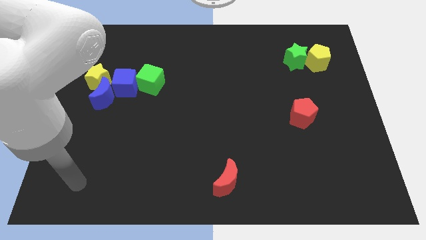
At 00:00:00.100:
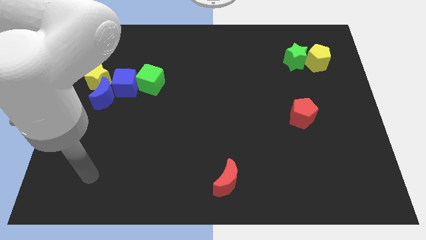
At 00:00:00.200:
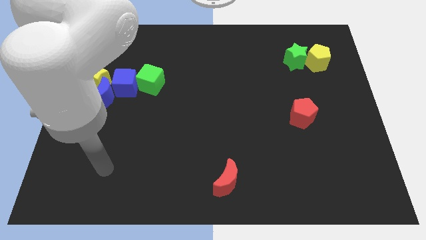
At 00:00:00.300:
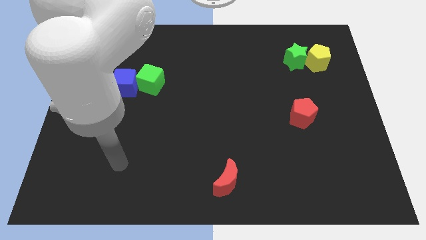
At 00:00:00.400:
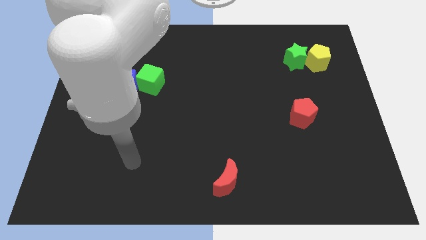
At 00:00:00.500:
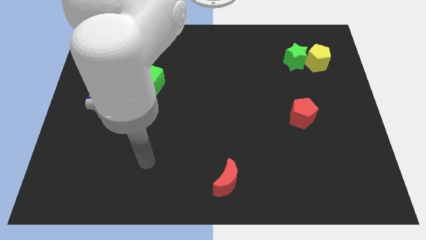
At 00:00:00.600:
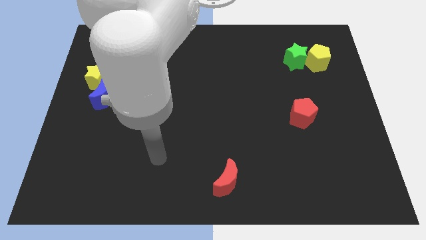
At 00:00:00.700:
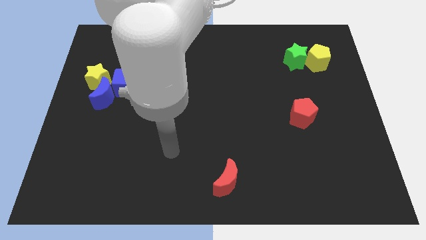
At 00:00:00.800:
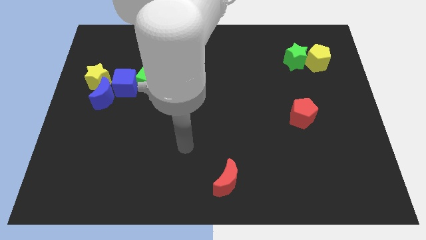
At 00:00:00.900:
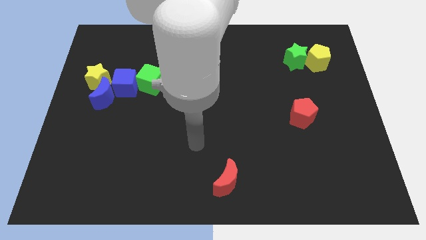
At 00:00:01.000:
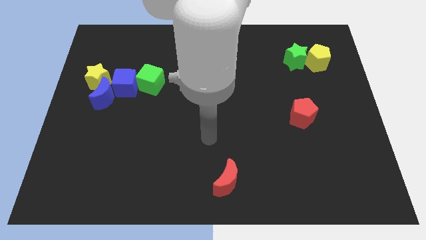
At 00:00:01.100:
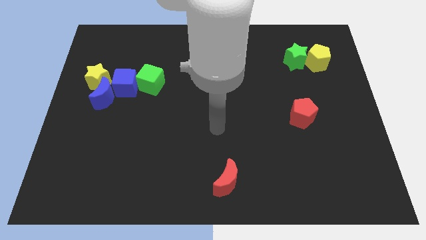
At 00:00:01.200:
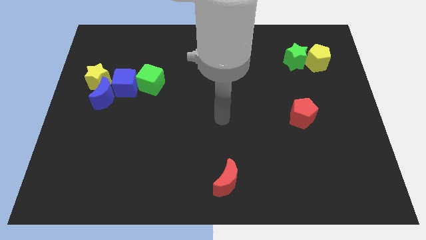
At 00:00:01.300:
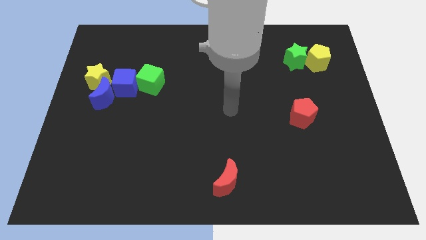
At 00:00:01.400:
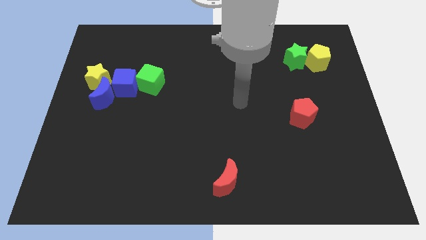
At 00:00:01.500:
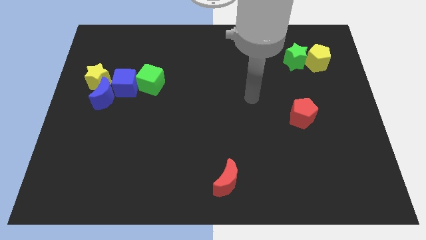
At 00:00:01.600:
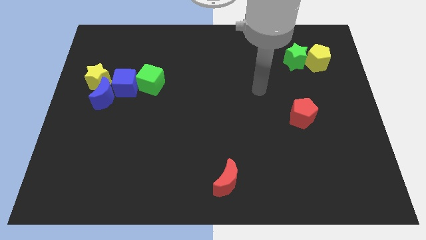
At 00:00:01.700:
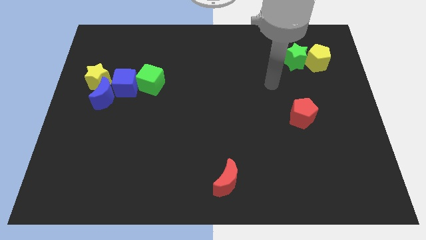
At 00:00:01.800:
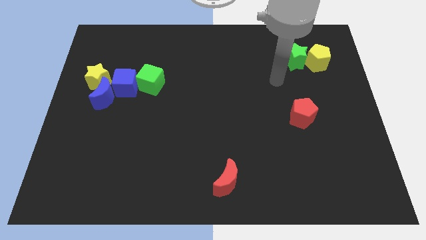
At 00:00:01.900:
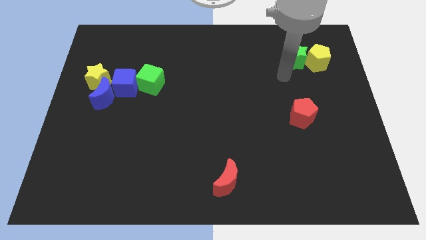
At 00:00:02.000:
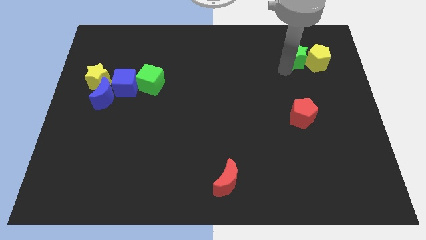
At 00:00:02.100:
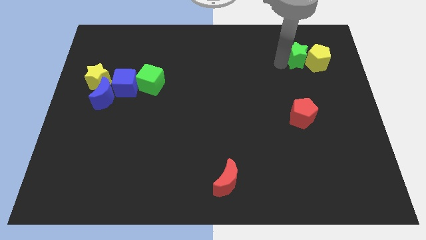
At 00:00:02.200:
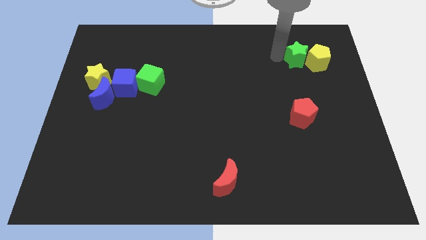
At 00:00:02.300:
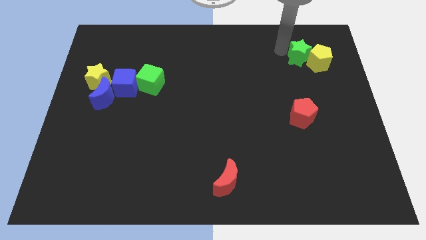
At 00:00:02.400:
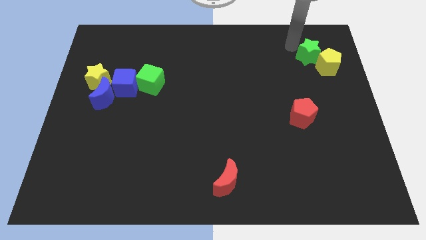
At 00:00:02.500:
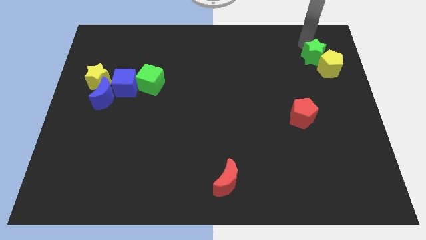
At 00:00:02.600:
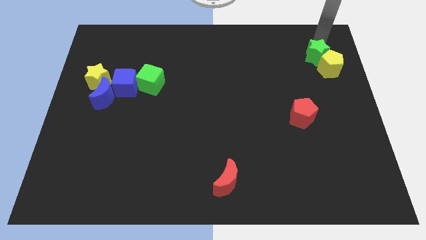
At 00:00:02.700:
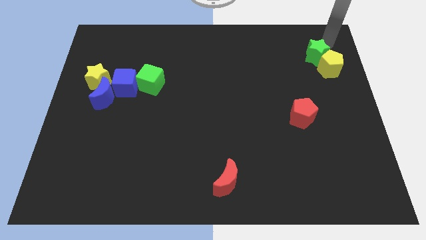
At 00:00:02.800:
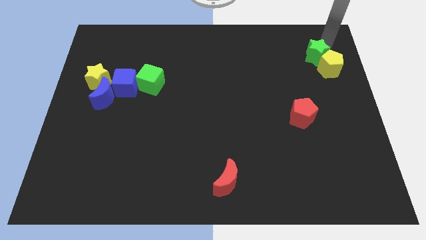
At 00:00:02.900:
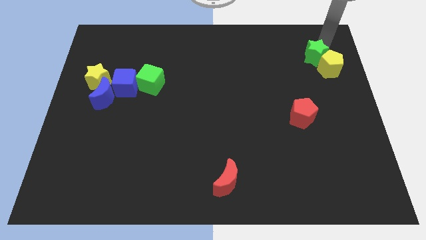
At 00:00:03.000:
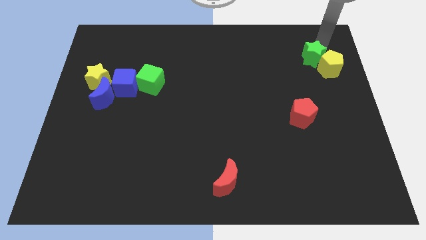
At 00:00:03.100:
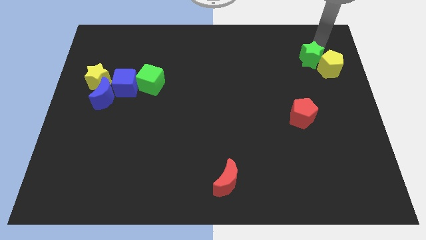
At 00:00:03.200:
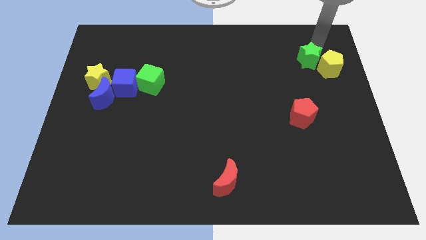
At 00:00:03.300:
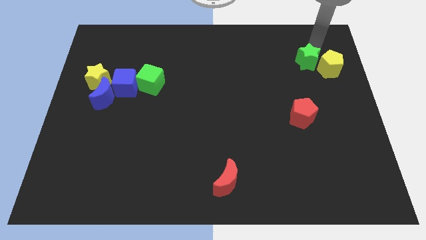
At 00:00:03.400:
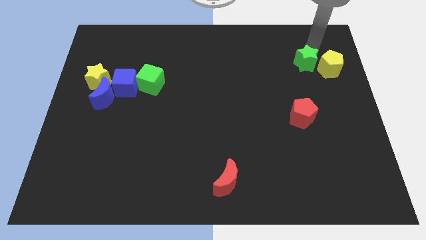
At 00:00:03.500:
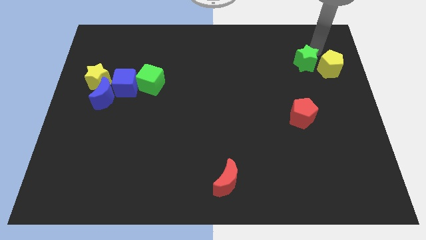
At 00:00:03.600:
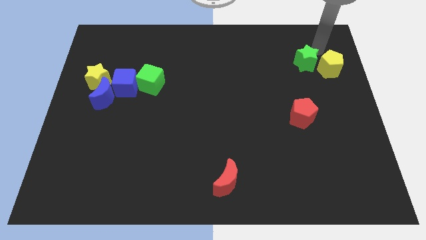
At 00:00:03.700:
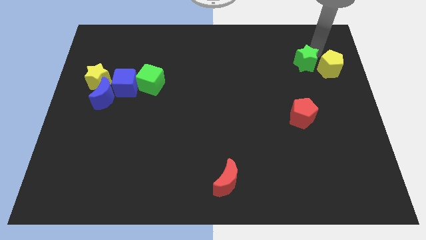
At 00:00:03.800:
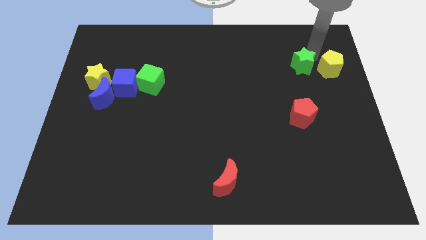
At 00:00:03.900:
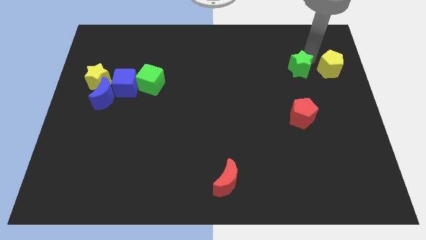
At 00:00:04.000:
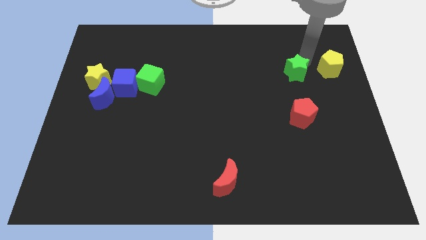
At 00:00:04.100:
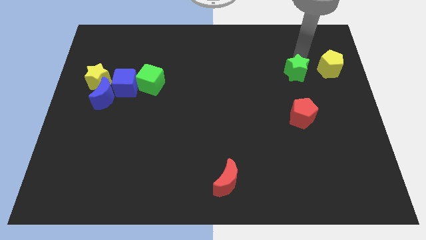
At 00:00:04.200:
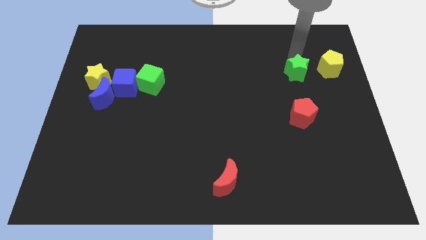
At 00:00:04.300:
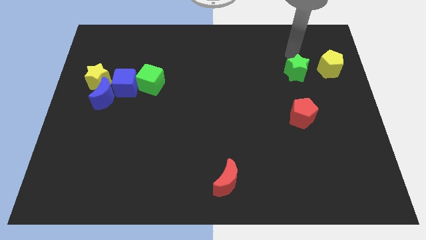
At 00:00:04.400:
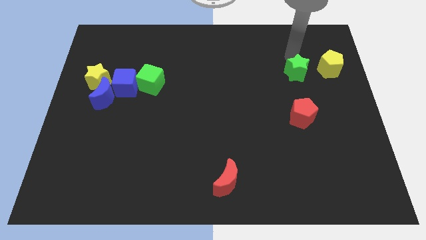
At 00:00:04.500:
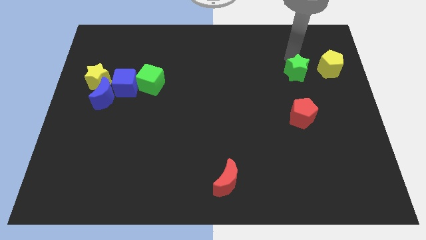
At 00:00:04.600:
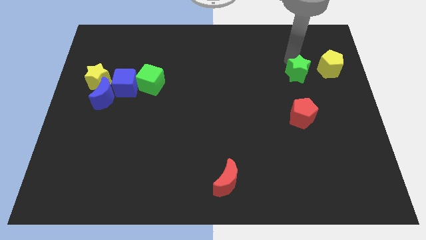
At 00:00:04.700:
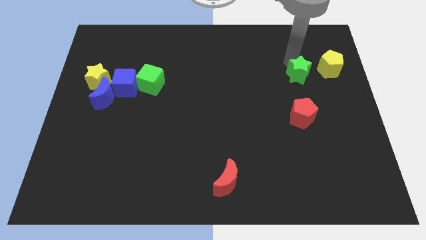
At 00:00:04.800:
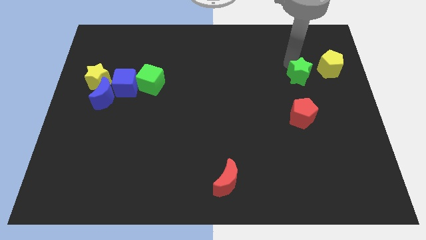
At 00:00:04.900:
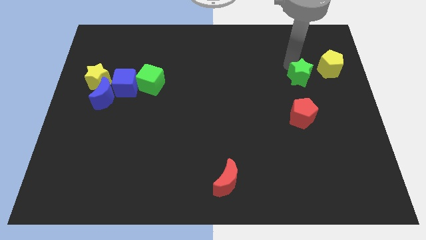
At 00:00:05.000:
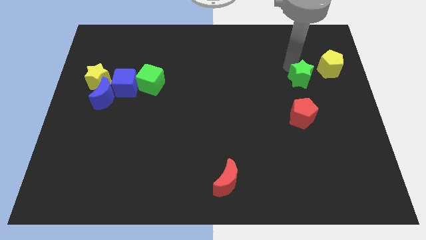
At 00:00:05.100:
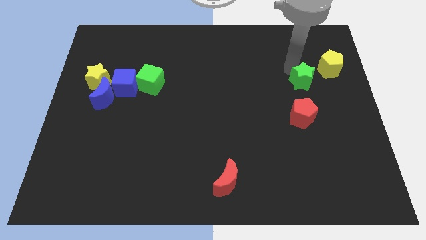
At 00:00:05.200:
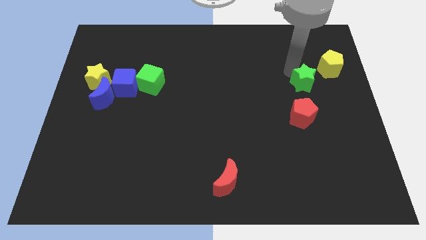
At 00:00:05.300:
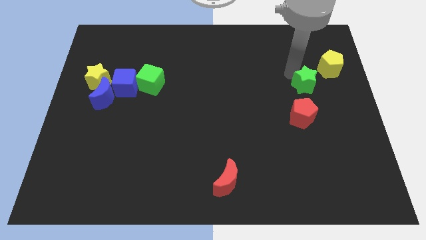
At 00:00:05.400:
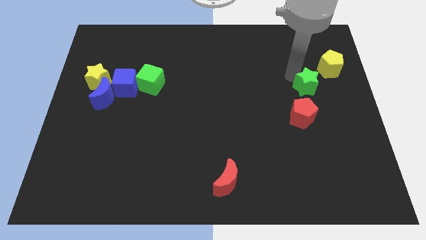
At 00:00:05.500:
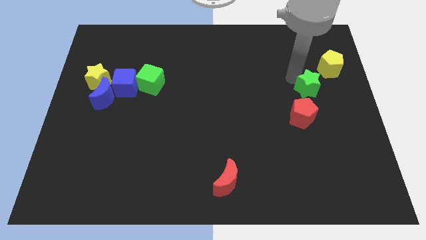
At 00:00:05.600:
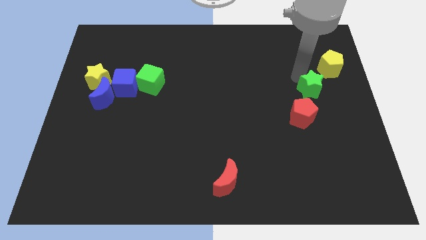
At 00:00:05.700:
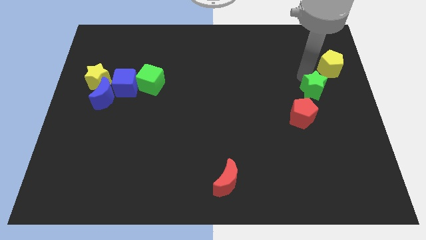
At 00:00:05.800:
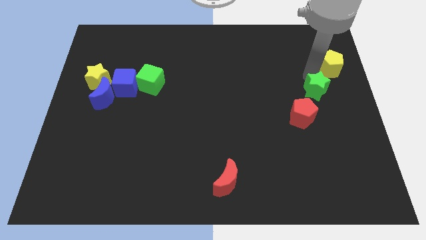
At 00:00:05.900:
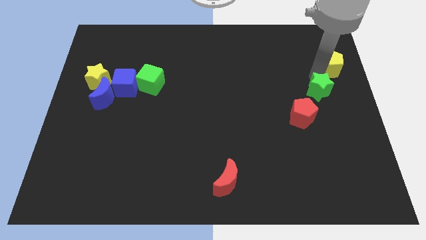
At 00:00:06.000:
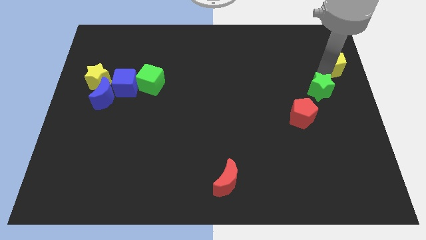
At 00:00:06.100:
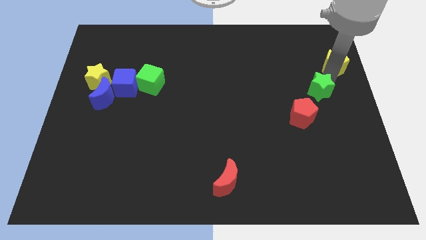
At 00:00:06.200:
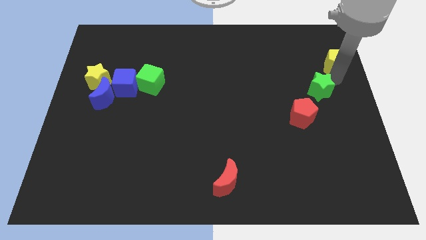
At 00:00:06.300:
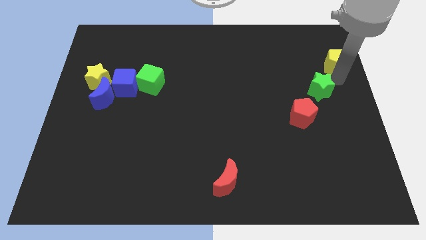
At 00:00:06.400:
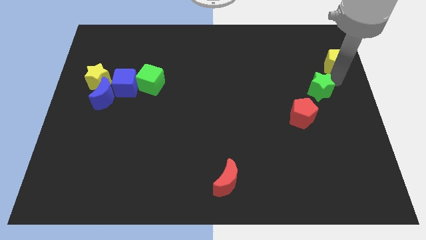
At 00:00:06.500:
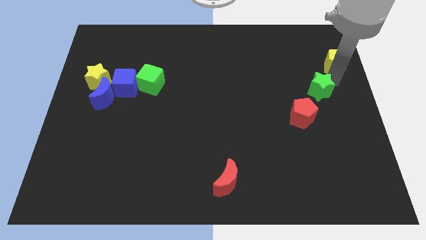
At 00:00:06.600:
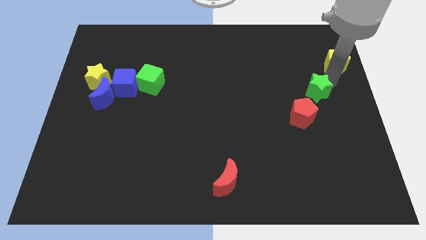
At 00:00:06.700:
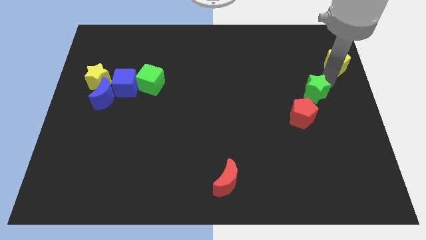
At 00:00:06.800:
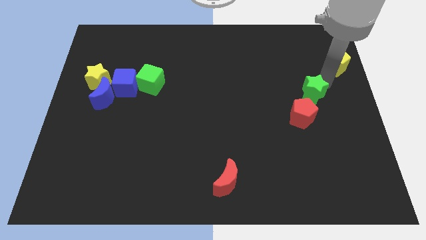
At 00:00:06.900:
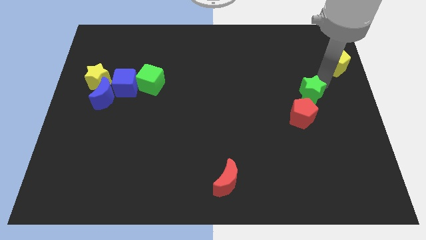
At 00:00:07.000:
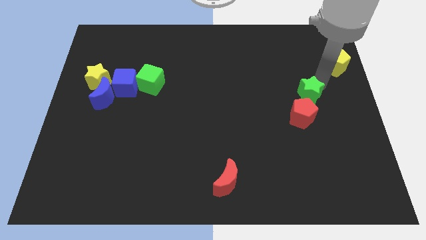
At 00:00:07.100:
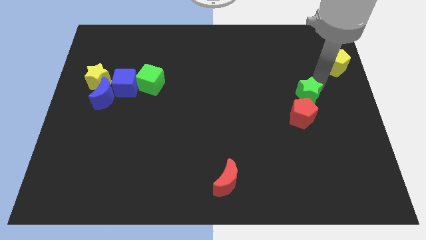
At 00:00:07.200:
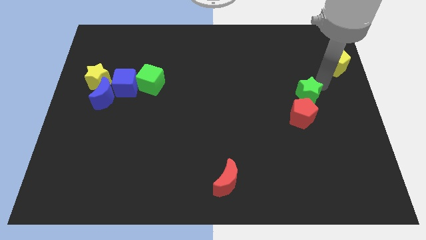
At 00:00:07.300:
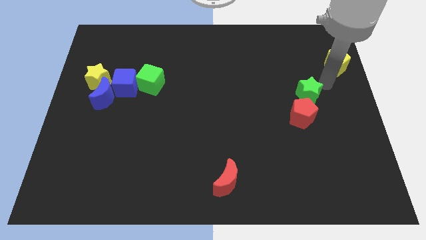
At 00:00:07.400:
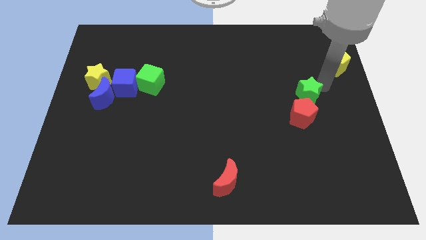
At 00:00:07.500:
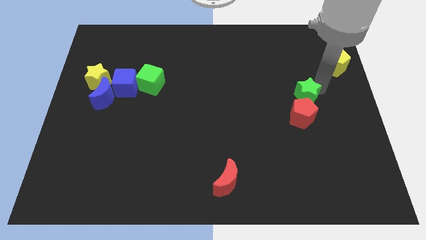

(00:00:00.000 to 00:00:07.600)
push the green star to the red pentagon
